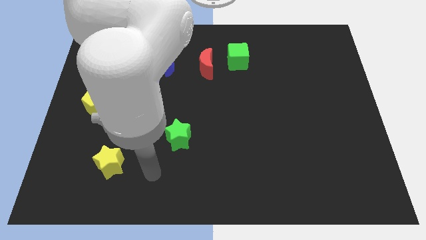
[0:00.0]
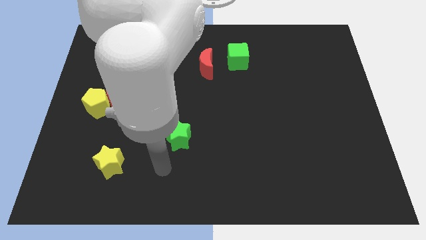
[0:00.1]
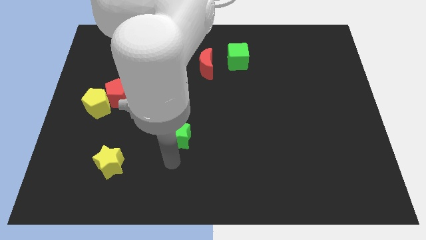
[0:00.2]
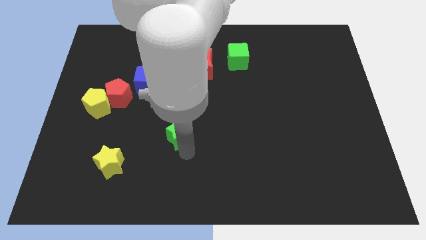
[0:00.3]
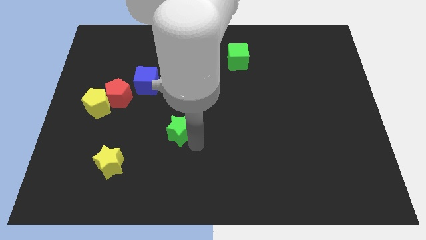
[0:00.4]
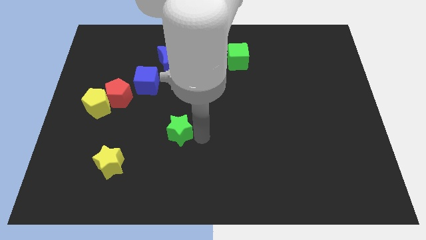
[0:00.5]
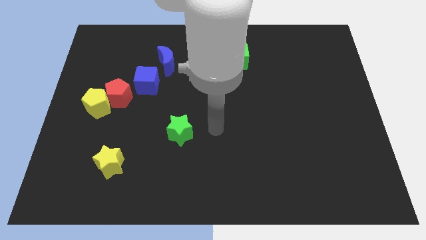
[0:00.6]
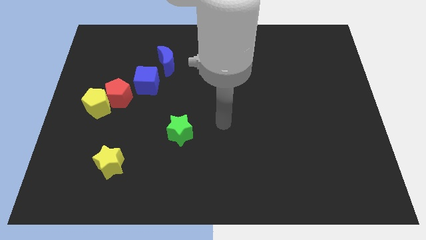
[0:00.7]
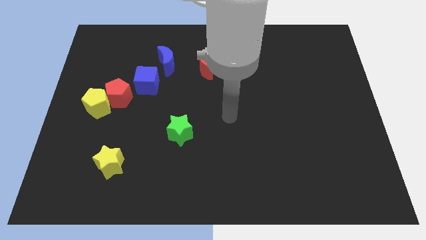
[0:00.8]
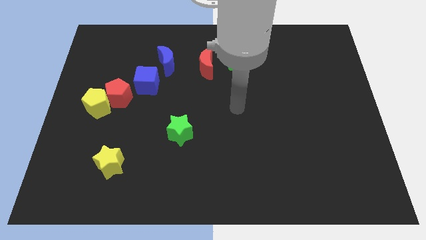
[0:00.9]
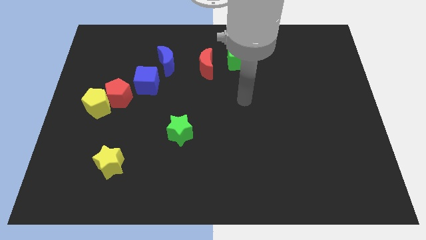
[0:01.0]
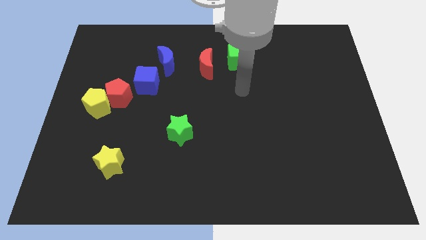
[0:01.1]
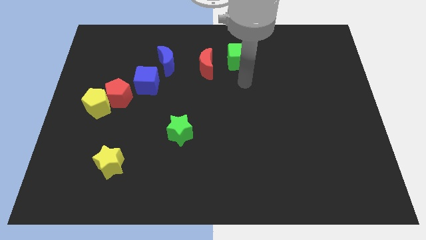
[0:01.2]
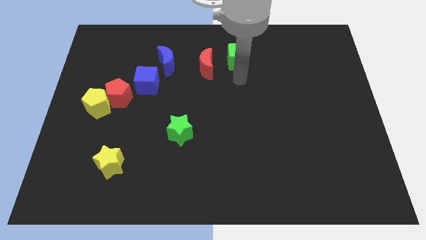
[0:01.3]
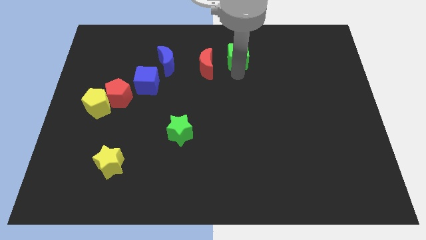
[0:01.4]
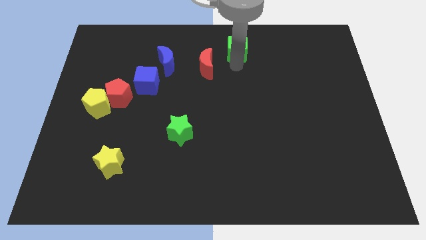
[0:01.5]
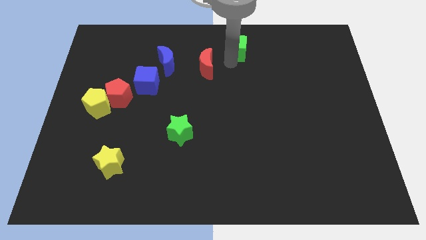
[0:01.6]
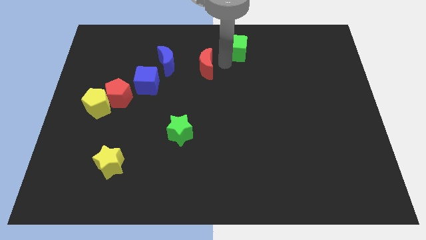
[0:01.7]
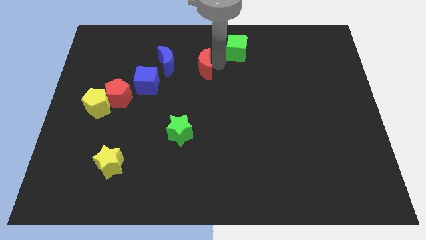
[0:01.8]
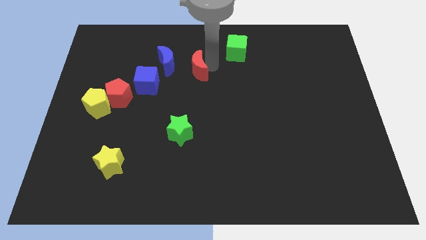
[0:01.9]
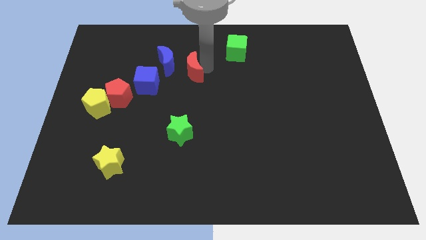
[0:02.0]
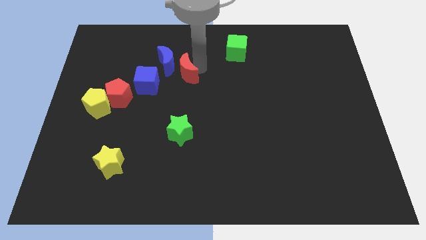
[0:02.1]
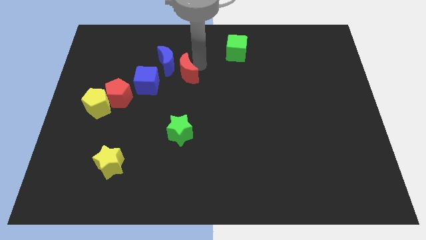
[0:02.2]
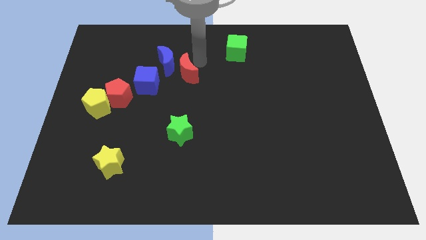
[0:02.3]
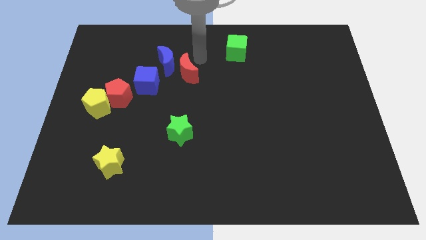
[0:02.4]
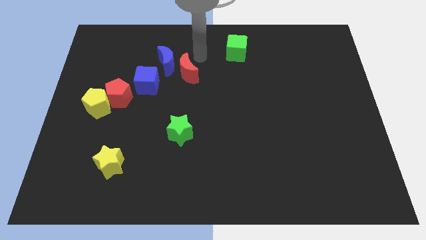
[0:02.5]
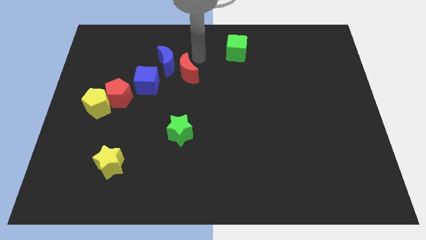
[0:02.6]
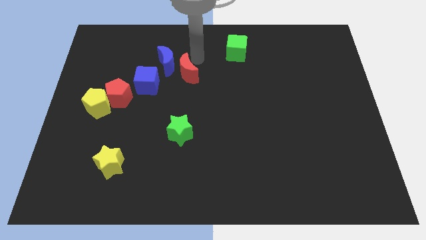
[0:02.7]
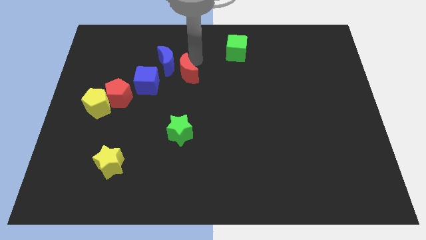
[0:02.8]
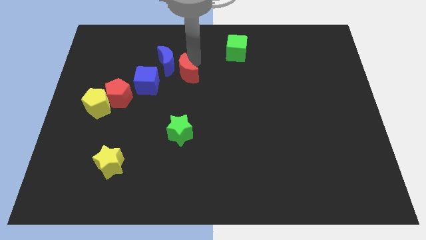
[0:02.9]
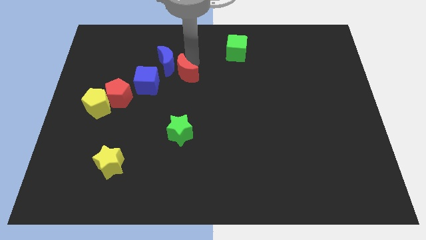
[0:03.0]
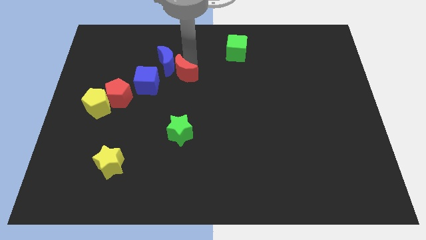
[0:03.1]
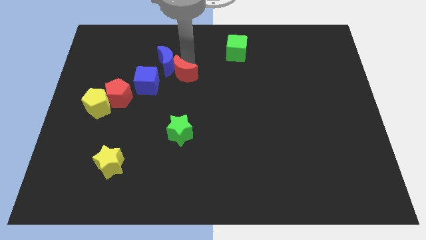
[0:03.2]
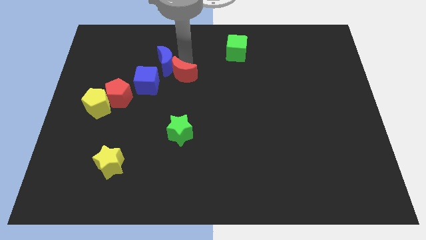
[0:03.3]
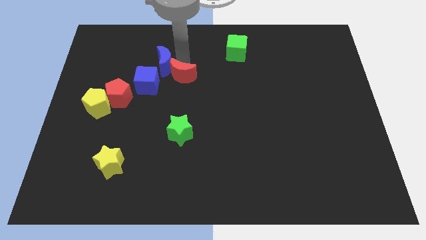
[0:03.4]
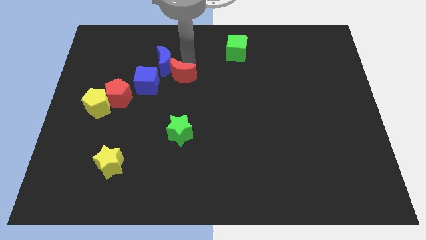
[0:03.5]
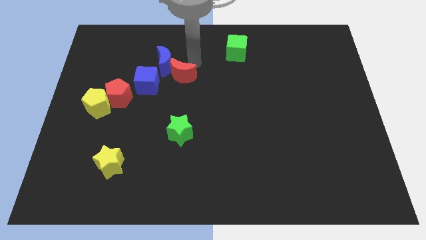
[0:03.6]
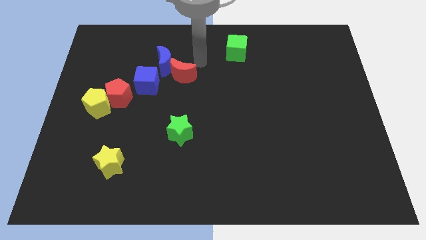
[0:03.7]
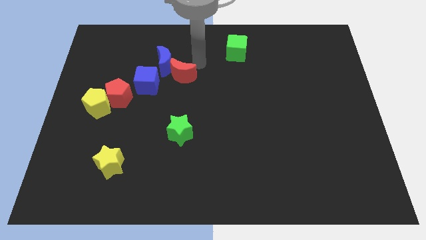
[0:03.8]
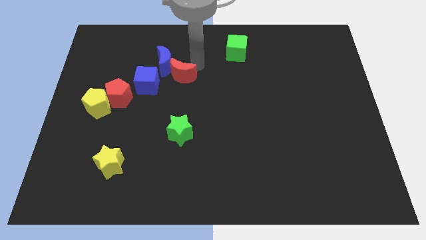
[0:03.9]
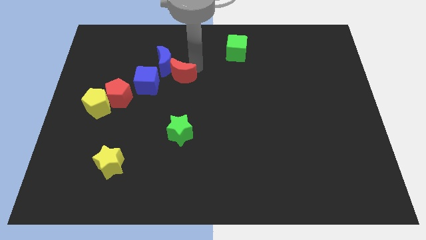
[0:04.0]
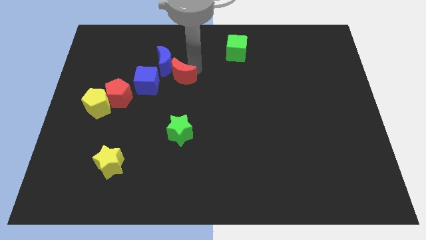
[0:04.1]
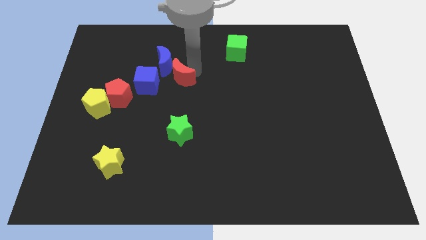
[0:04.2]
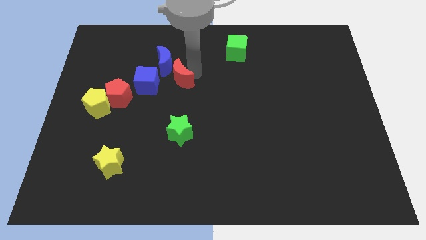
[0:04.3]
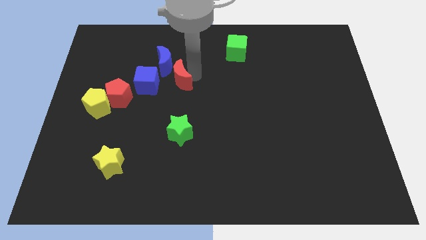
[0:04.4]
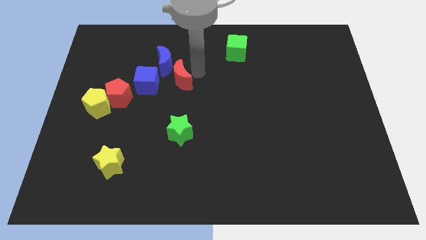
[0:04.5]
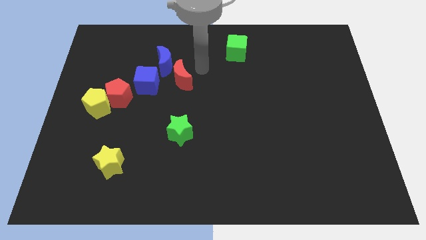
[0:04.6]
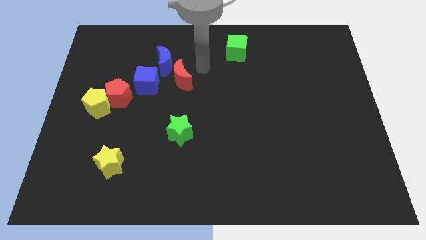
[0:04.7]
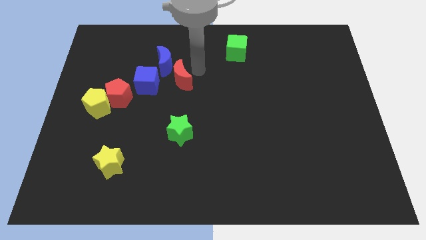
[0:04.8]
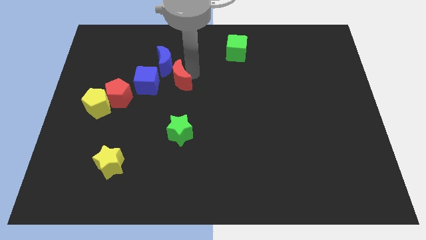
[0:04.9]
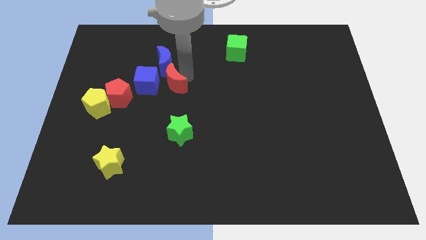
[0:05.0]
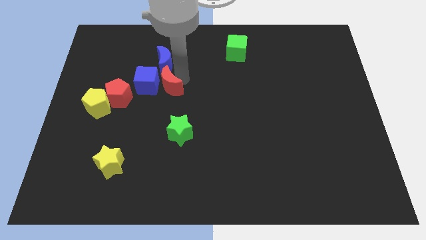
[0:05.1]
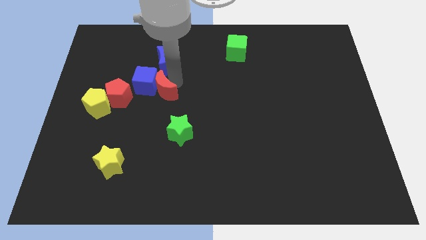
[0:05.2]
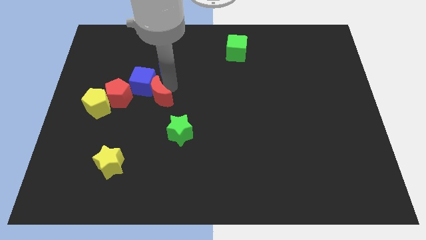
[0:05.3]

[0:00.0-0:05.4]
put the red moon to the right of the yellow pentagon

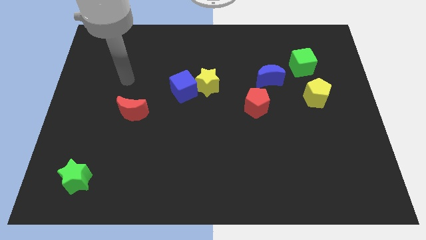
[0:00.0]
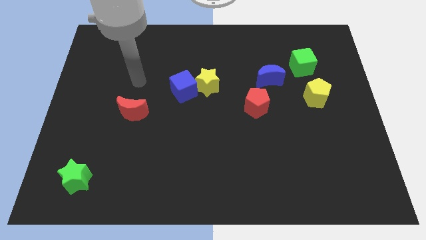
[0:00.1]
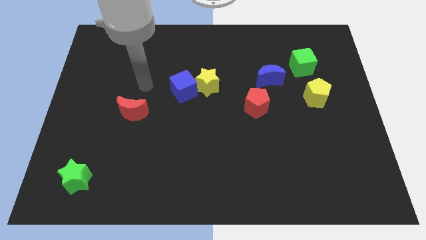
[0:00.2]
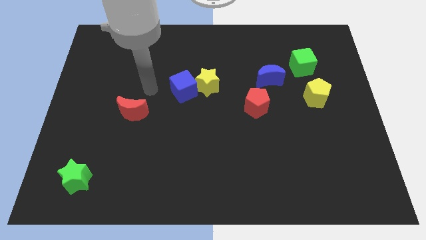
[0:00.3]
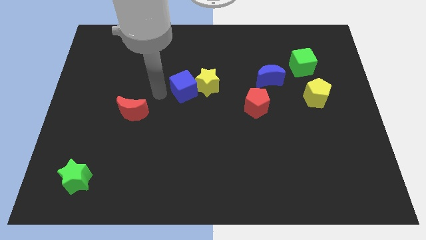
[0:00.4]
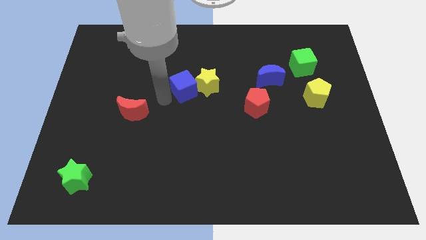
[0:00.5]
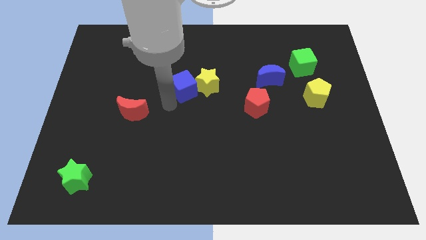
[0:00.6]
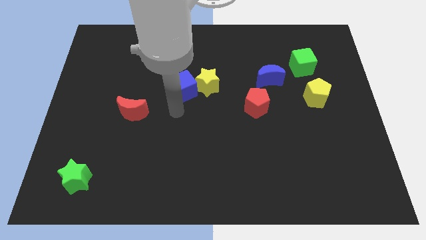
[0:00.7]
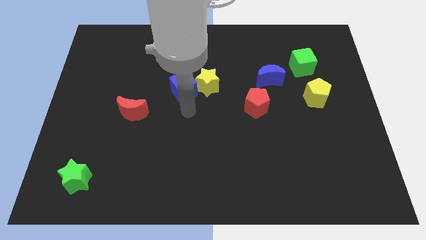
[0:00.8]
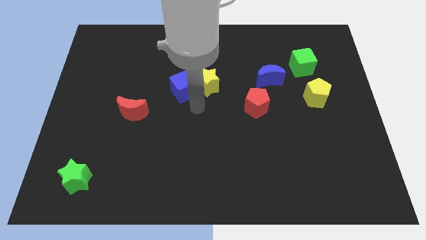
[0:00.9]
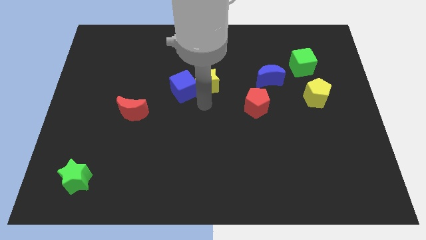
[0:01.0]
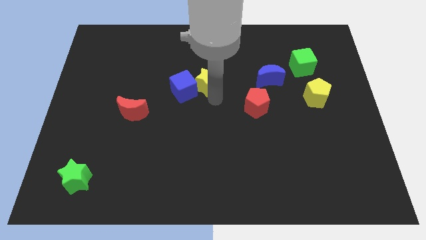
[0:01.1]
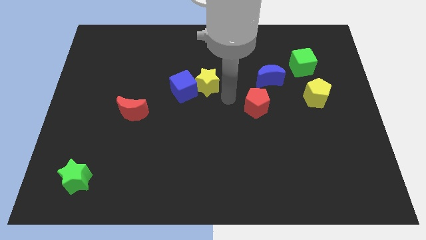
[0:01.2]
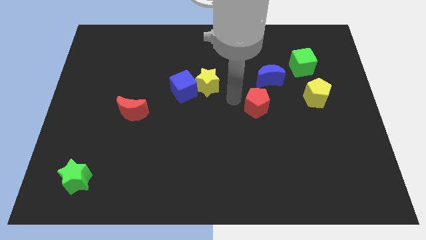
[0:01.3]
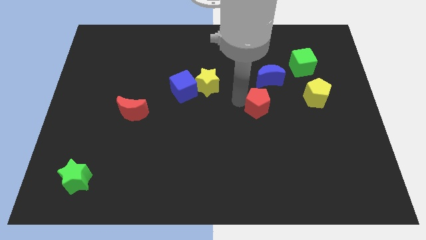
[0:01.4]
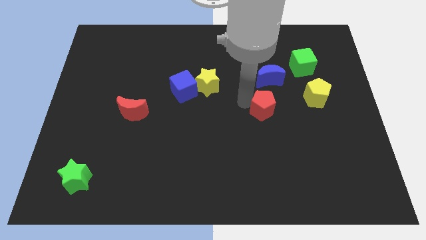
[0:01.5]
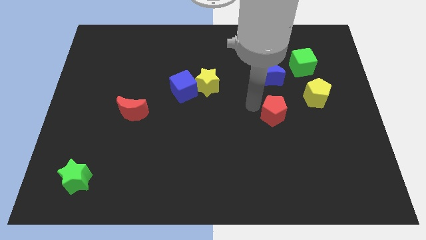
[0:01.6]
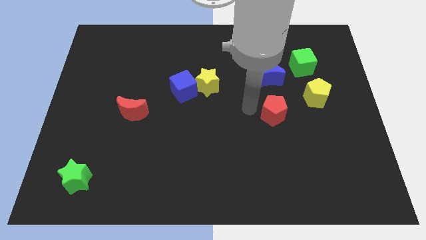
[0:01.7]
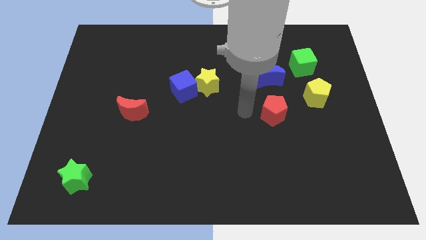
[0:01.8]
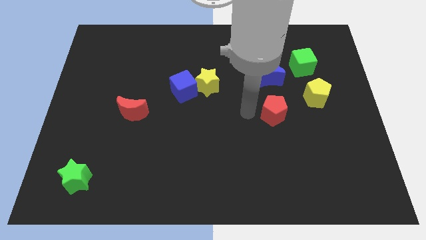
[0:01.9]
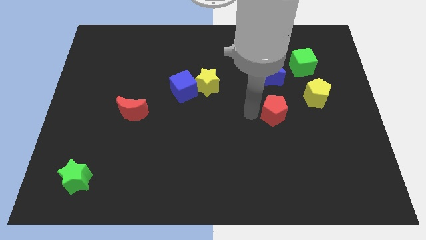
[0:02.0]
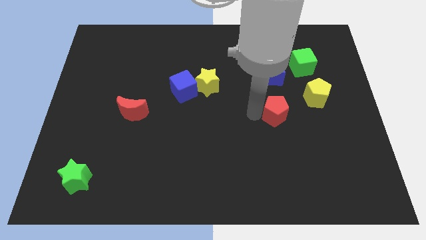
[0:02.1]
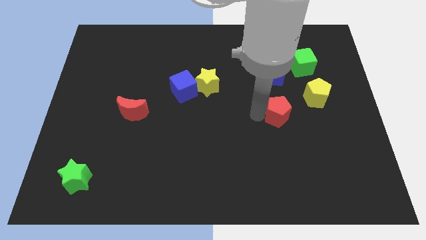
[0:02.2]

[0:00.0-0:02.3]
put the red pentagon diagonally down and to the left of the yellow pentagon
